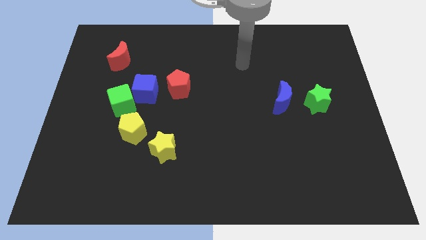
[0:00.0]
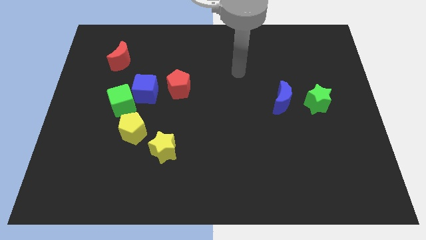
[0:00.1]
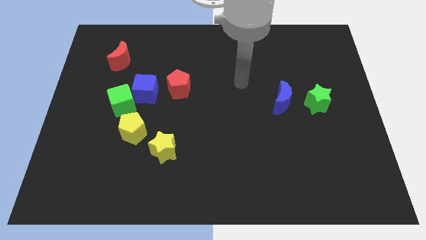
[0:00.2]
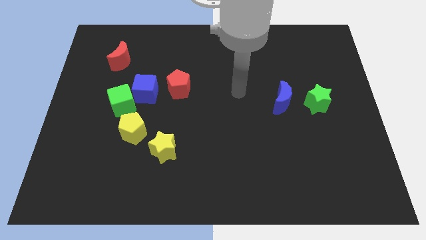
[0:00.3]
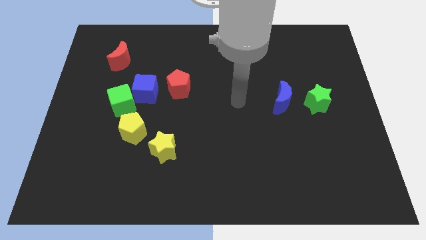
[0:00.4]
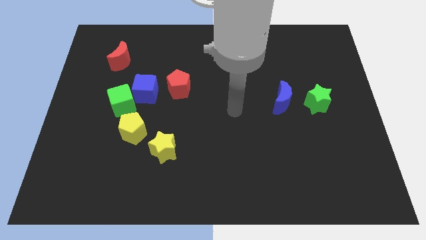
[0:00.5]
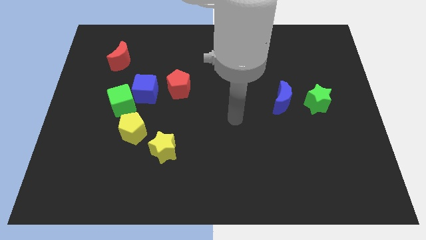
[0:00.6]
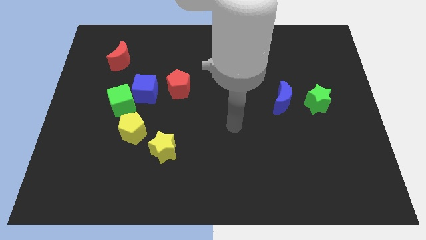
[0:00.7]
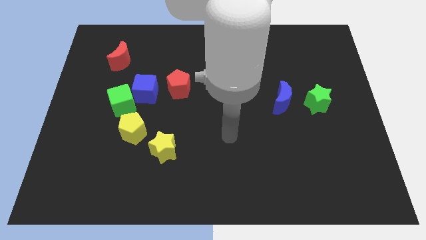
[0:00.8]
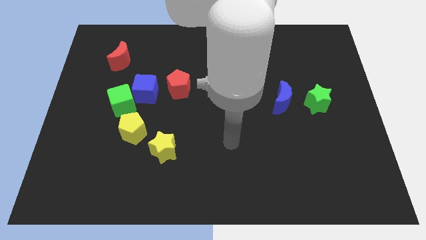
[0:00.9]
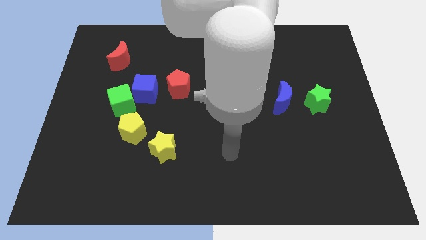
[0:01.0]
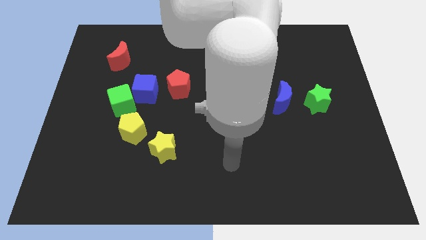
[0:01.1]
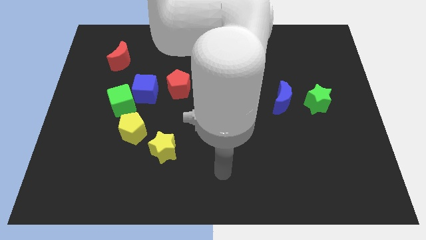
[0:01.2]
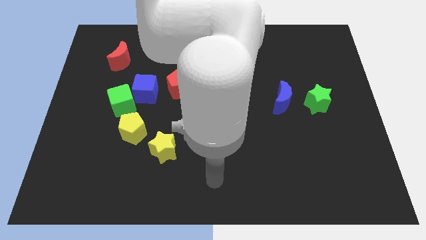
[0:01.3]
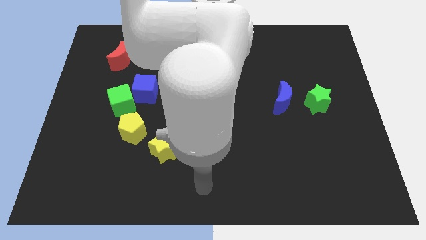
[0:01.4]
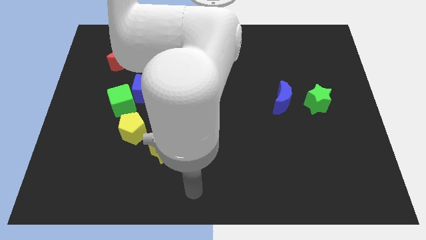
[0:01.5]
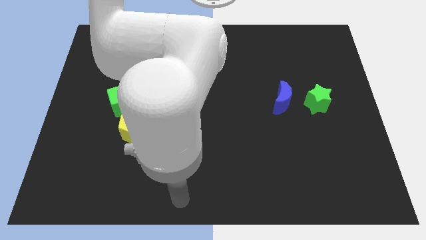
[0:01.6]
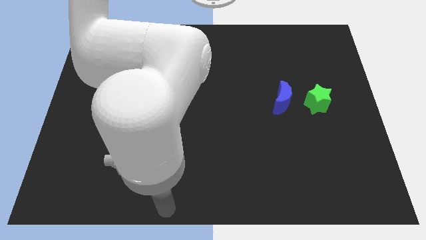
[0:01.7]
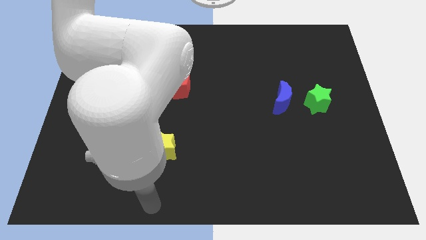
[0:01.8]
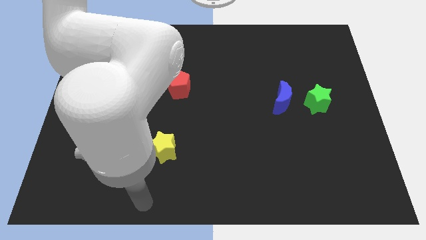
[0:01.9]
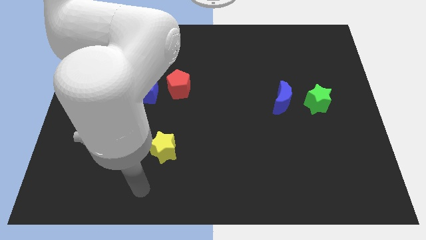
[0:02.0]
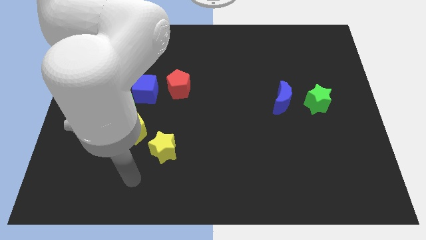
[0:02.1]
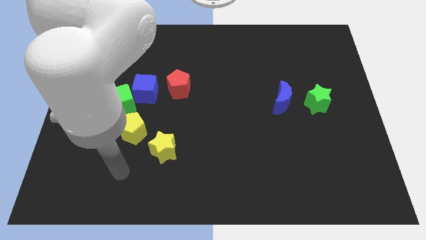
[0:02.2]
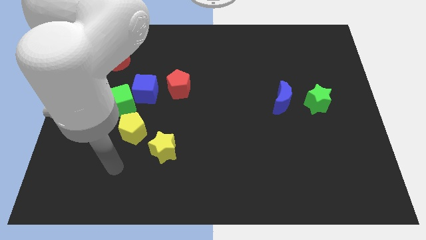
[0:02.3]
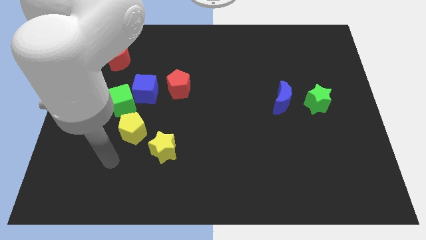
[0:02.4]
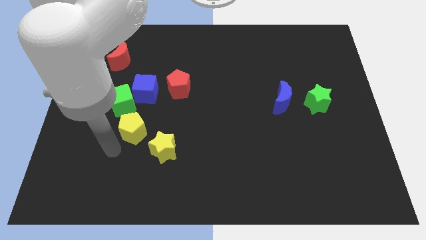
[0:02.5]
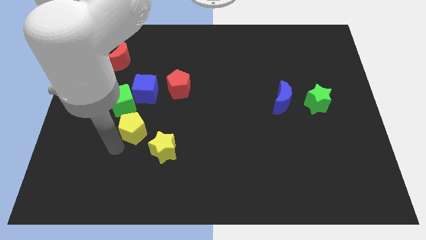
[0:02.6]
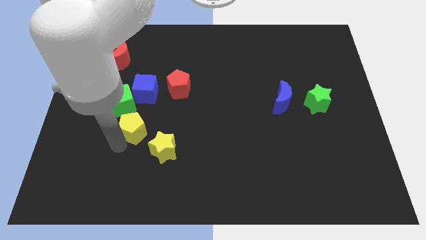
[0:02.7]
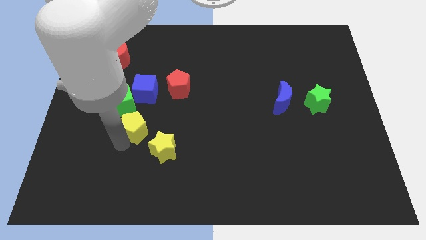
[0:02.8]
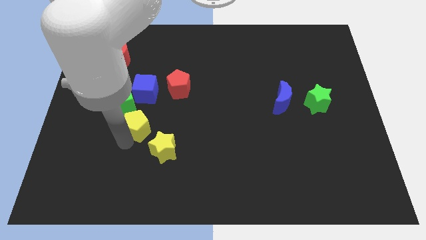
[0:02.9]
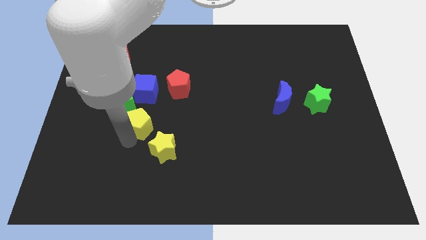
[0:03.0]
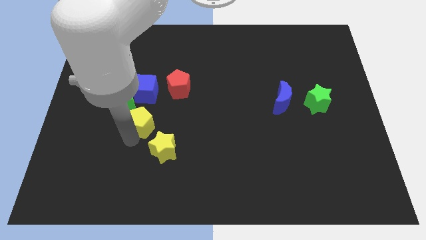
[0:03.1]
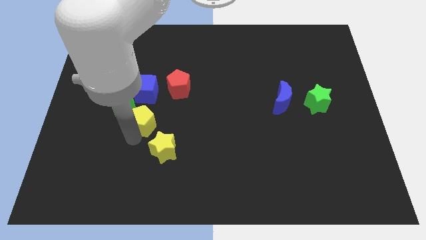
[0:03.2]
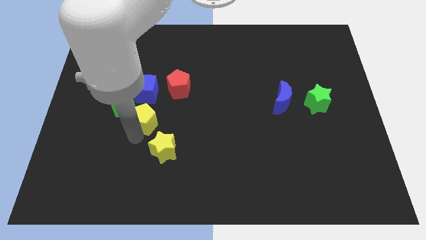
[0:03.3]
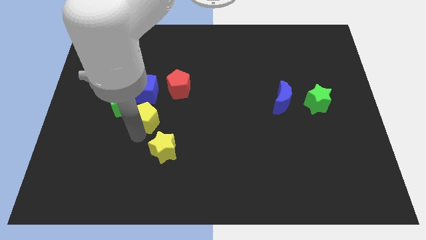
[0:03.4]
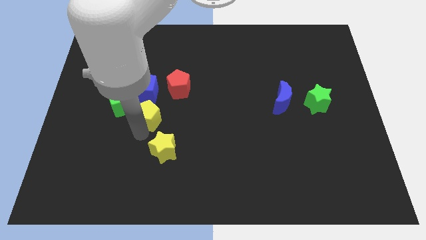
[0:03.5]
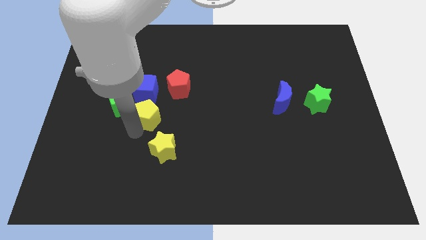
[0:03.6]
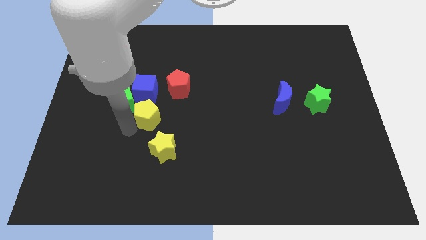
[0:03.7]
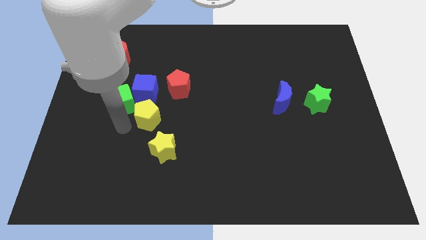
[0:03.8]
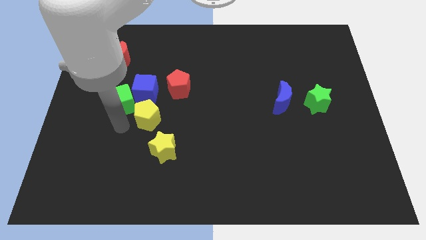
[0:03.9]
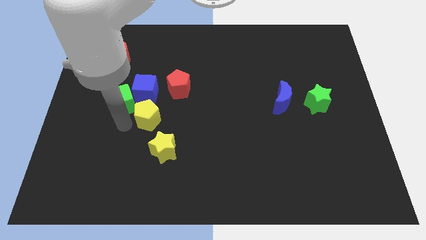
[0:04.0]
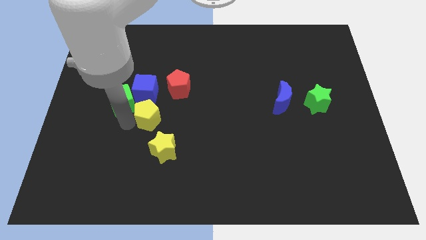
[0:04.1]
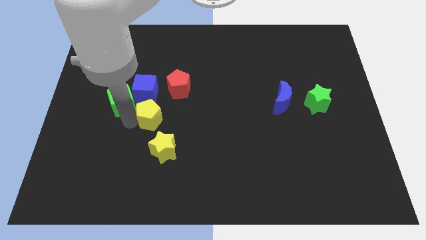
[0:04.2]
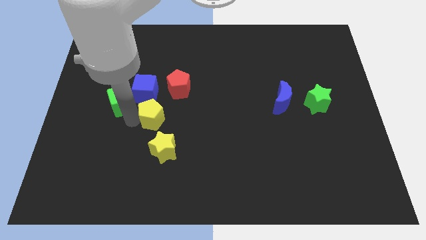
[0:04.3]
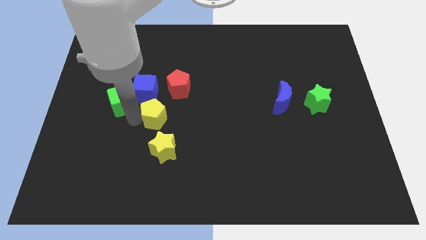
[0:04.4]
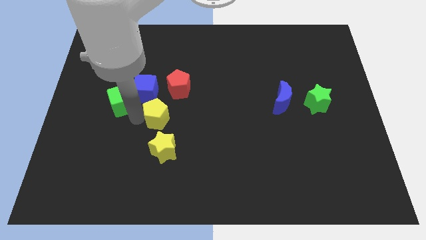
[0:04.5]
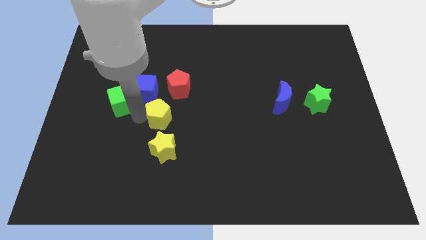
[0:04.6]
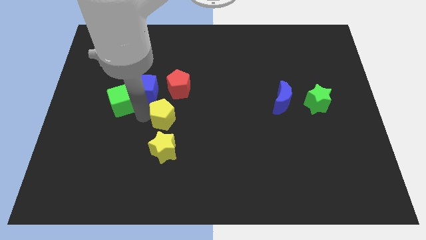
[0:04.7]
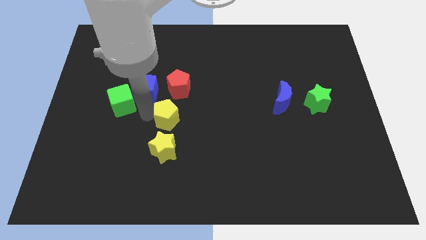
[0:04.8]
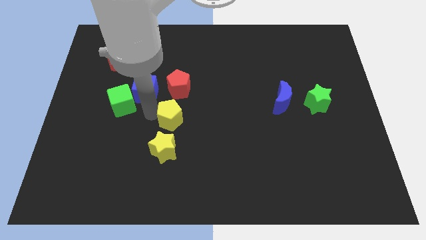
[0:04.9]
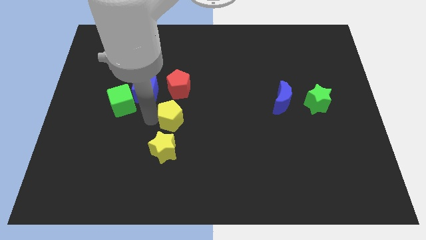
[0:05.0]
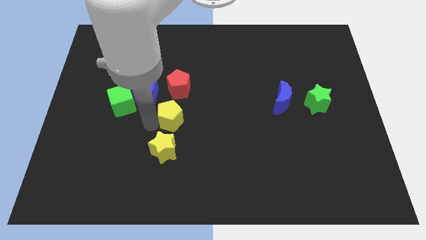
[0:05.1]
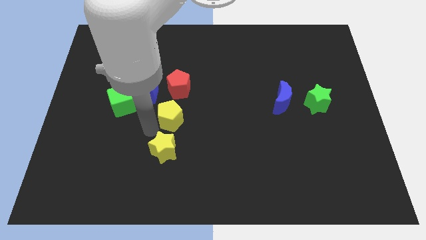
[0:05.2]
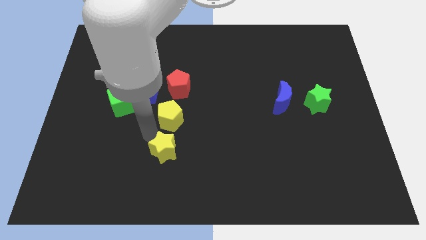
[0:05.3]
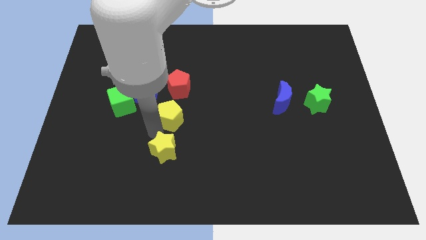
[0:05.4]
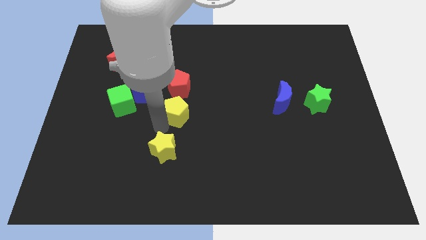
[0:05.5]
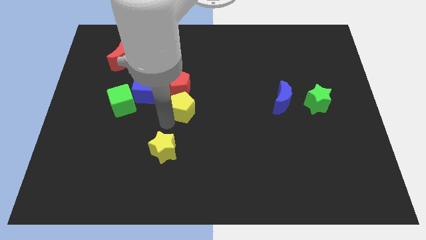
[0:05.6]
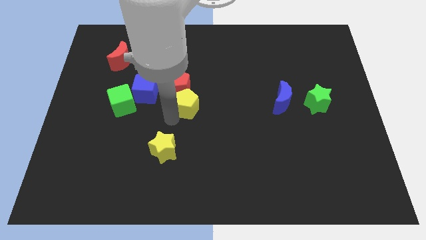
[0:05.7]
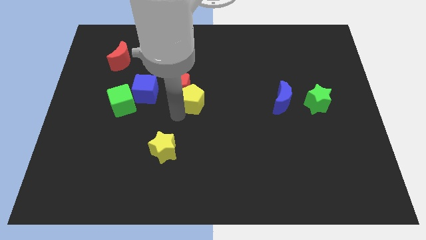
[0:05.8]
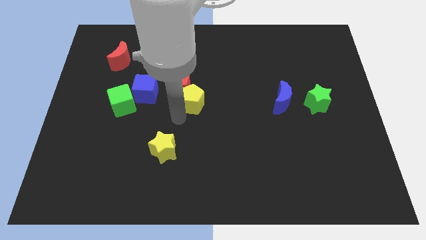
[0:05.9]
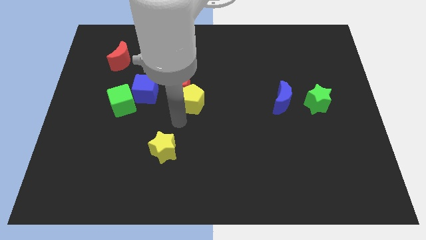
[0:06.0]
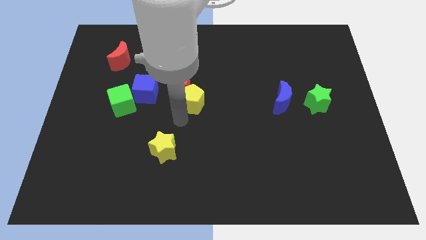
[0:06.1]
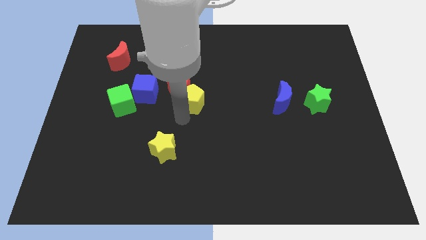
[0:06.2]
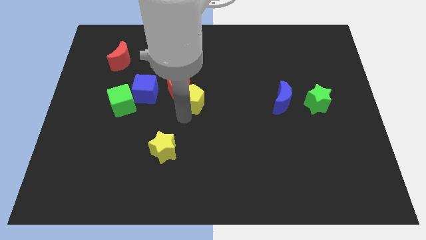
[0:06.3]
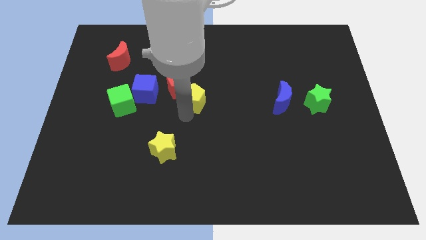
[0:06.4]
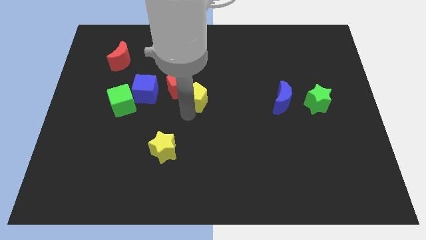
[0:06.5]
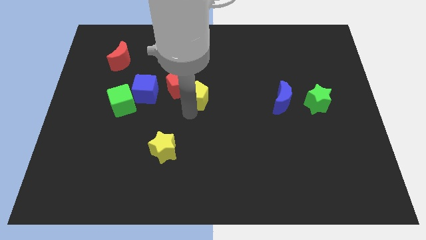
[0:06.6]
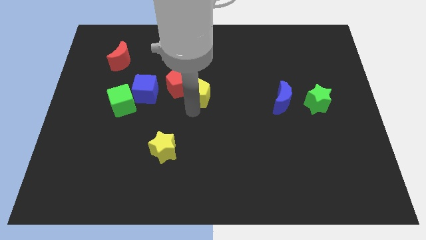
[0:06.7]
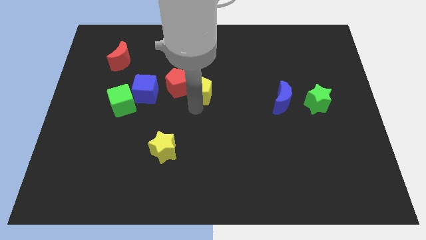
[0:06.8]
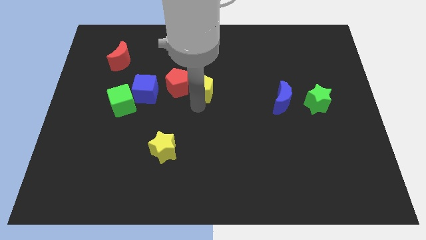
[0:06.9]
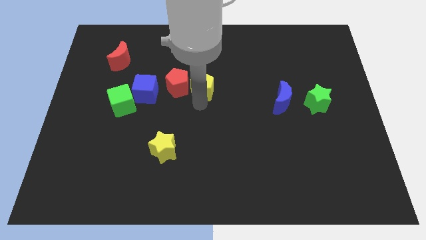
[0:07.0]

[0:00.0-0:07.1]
move the yellow pentagon to the top right of the red pentagon
